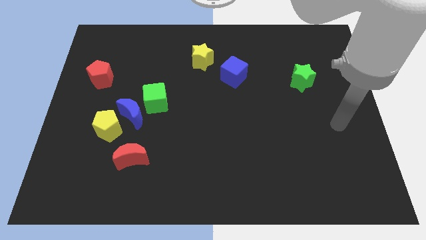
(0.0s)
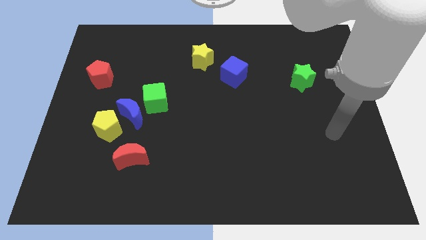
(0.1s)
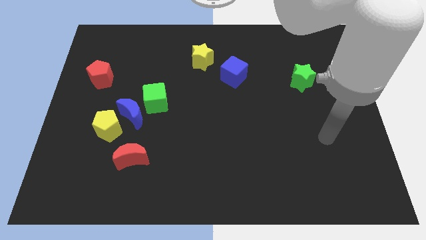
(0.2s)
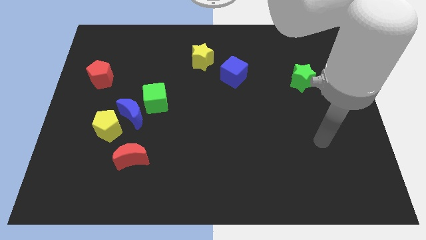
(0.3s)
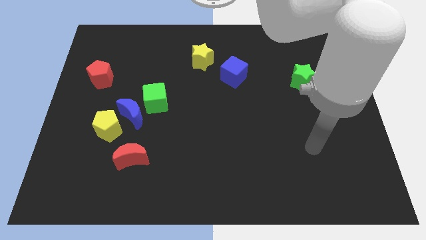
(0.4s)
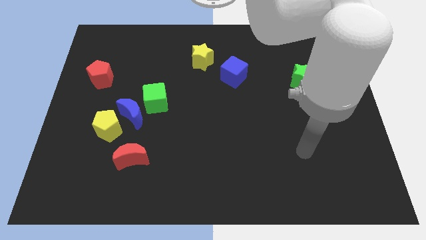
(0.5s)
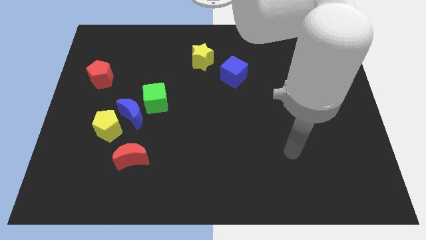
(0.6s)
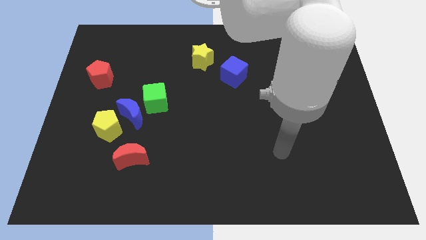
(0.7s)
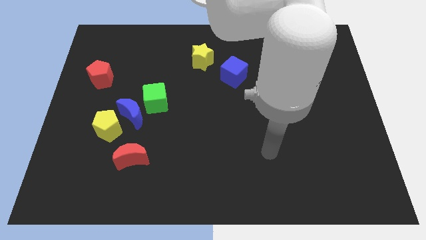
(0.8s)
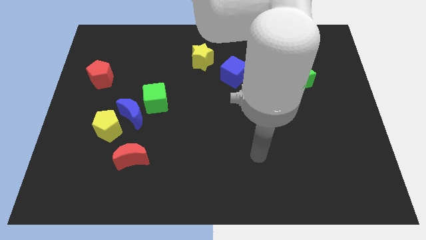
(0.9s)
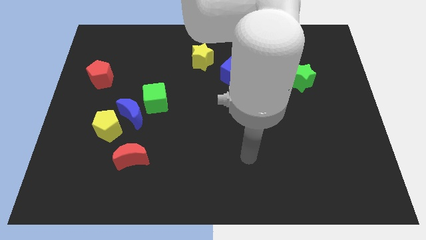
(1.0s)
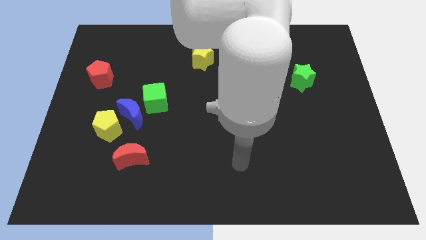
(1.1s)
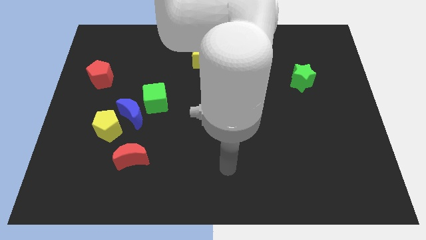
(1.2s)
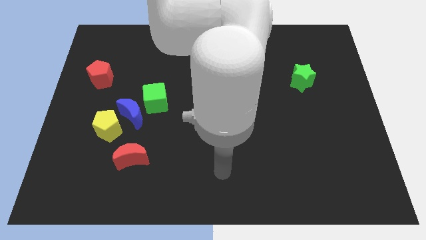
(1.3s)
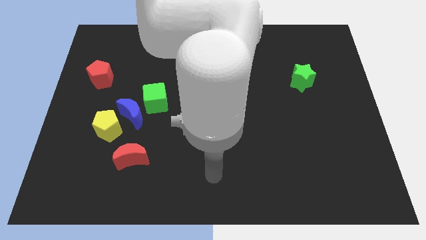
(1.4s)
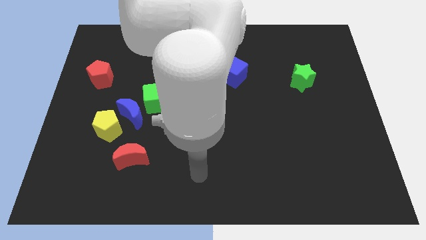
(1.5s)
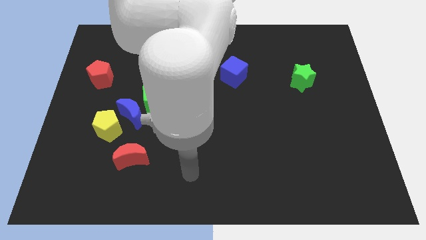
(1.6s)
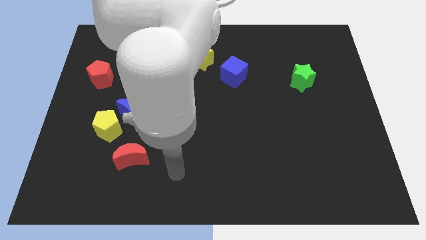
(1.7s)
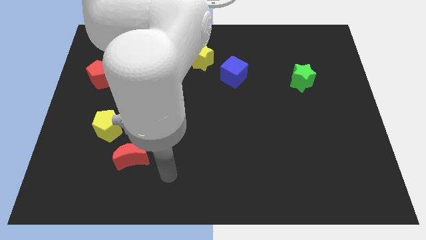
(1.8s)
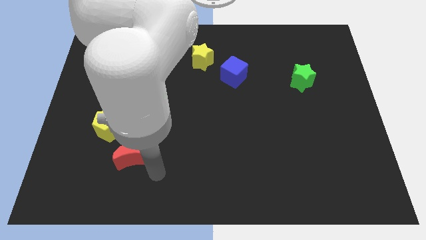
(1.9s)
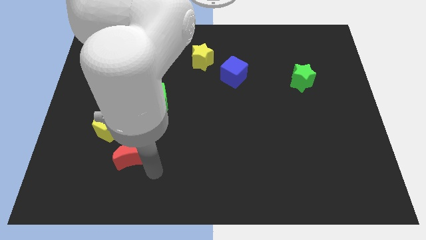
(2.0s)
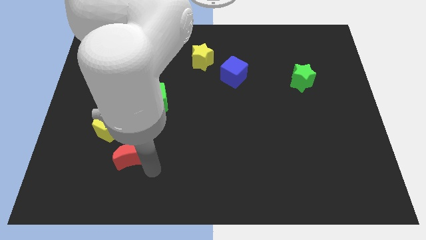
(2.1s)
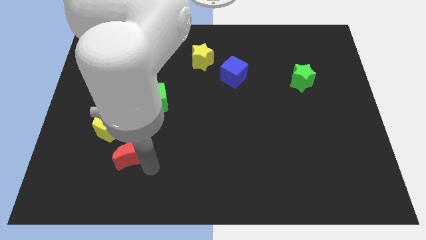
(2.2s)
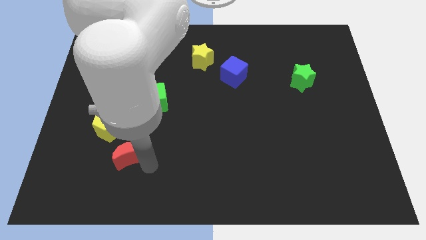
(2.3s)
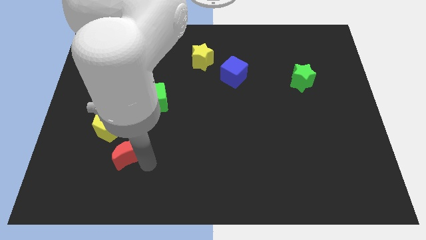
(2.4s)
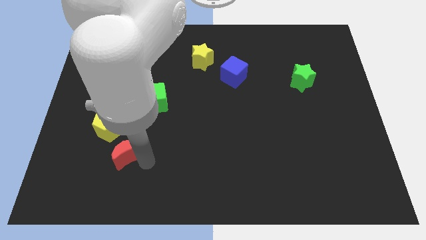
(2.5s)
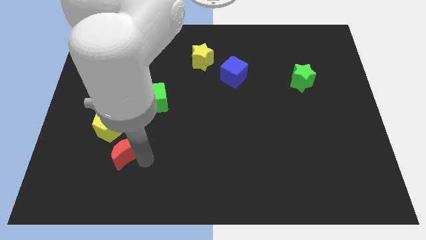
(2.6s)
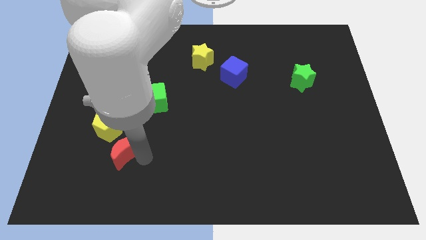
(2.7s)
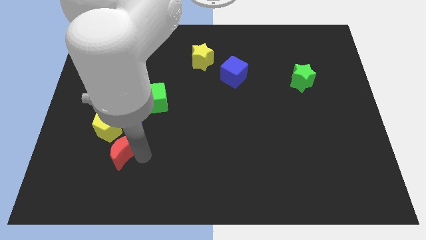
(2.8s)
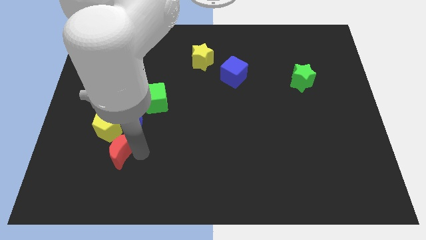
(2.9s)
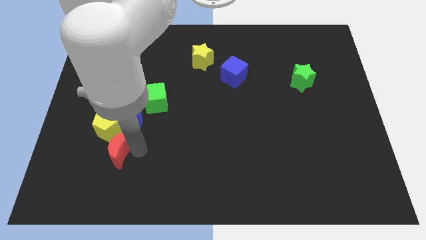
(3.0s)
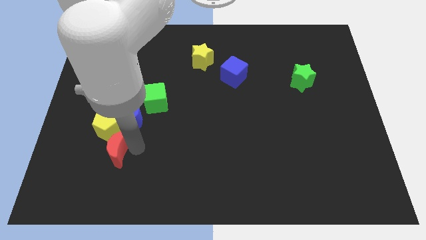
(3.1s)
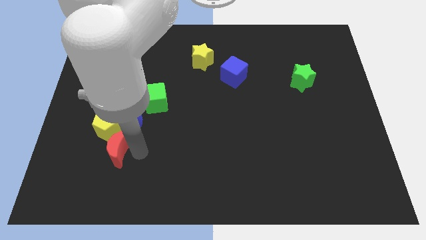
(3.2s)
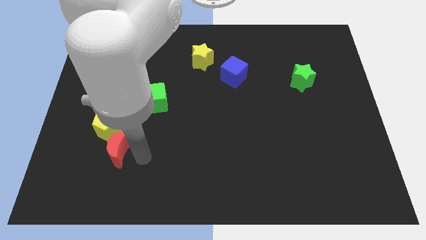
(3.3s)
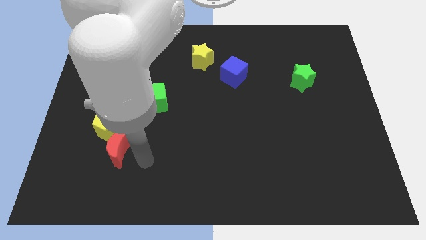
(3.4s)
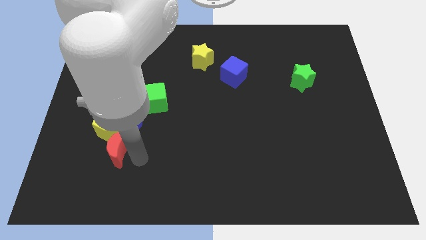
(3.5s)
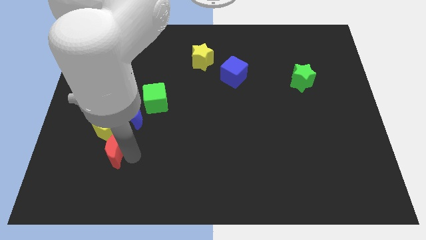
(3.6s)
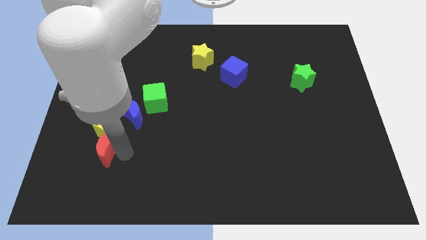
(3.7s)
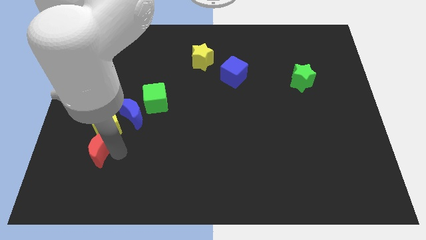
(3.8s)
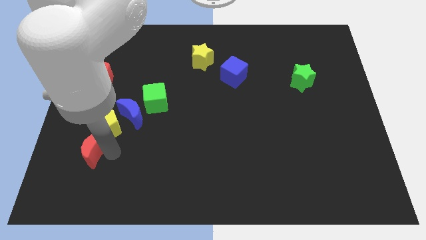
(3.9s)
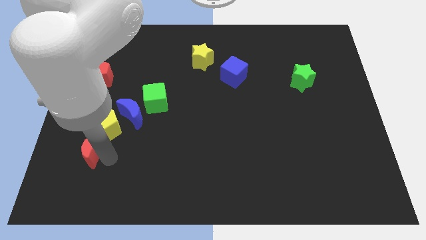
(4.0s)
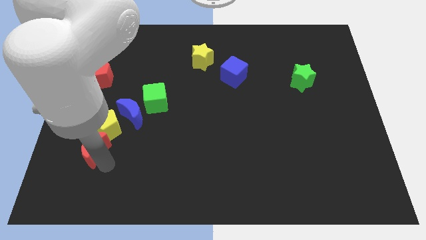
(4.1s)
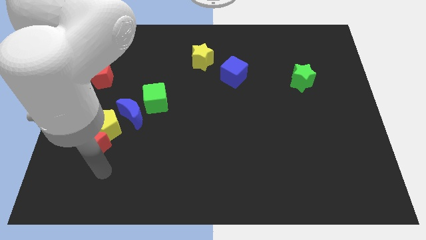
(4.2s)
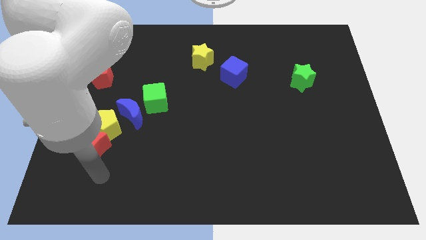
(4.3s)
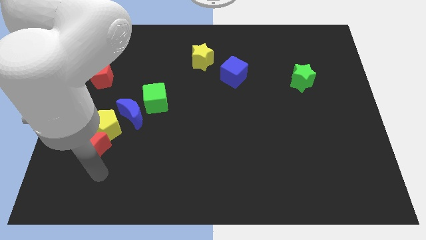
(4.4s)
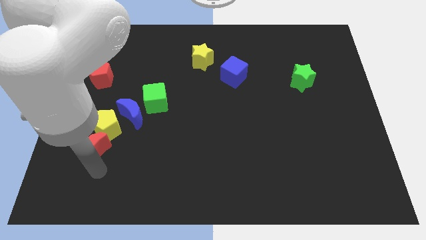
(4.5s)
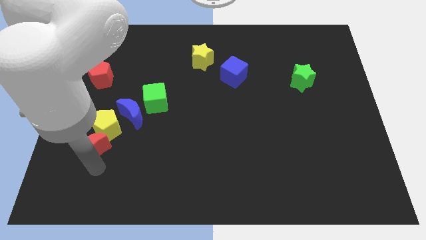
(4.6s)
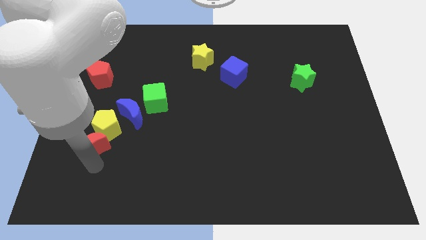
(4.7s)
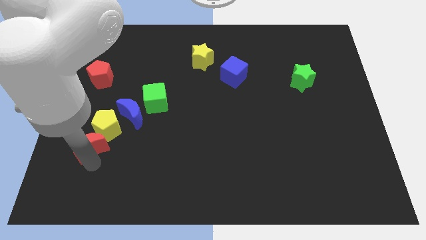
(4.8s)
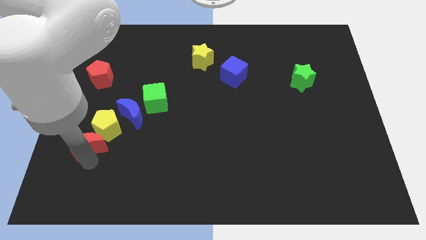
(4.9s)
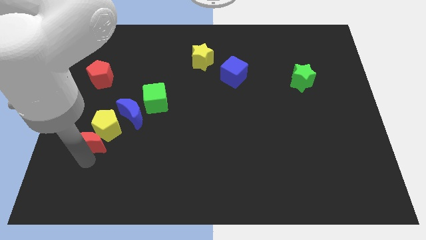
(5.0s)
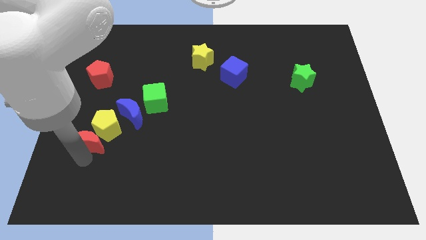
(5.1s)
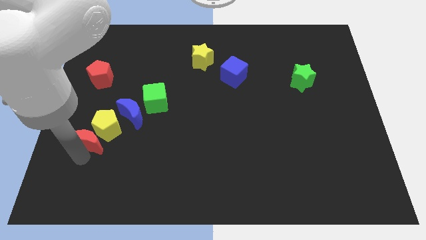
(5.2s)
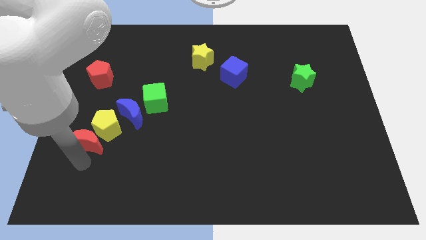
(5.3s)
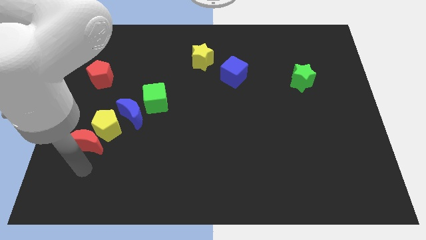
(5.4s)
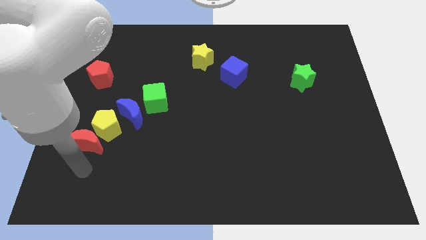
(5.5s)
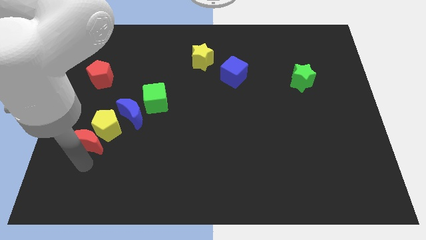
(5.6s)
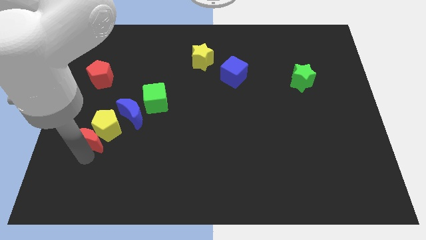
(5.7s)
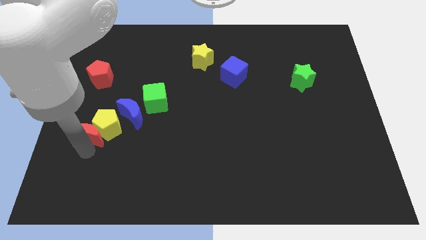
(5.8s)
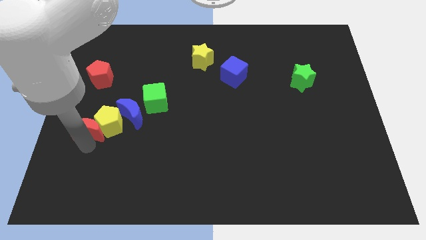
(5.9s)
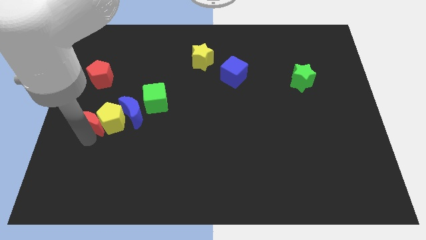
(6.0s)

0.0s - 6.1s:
push the red moon to the bottom of the red pentagon
